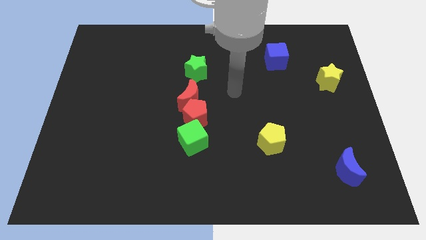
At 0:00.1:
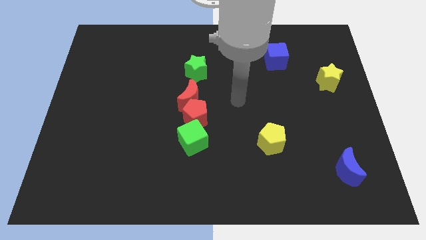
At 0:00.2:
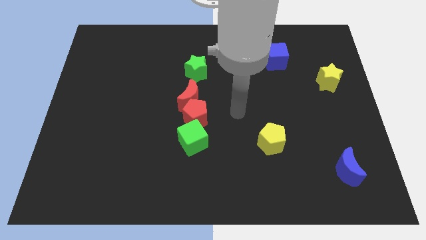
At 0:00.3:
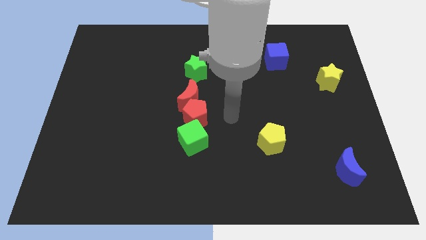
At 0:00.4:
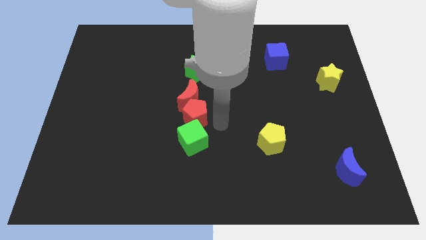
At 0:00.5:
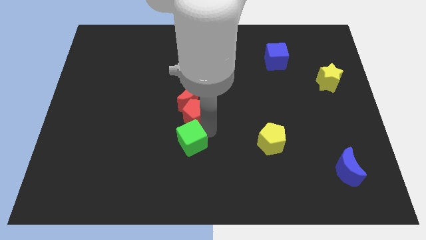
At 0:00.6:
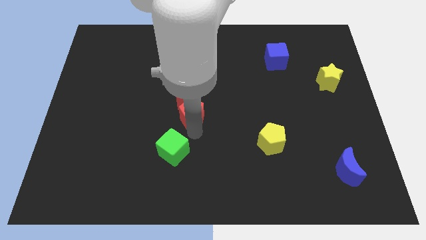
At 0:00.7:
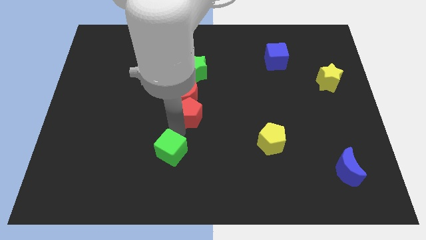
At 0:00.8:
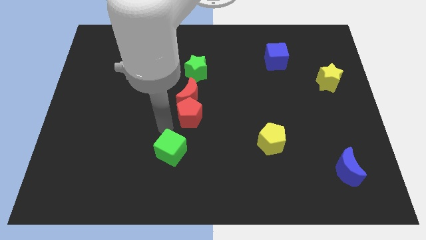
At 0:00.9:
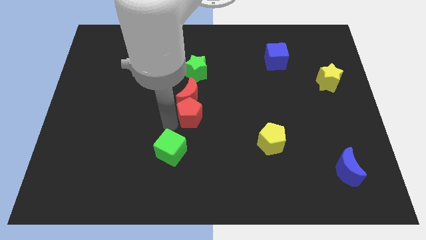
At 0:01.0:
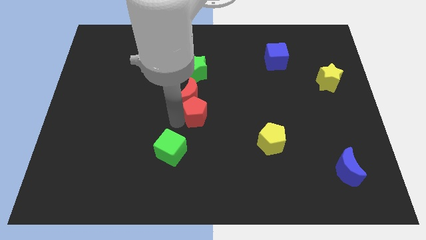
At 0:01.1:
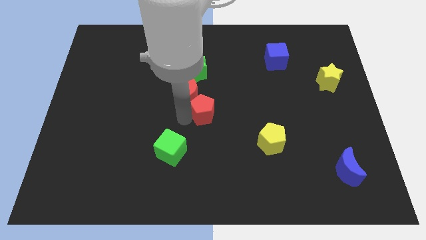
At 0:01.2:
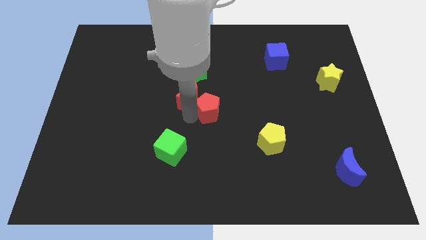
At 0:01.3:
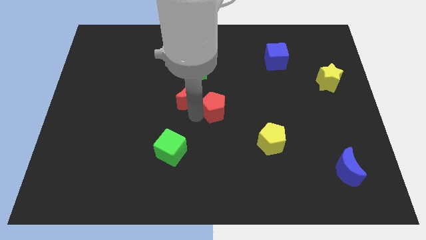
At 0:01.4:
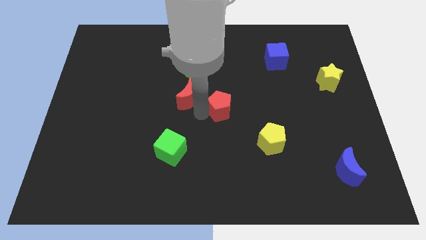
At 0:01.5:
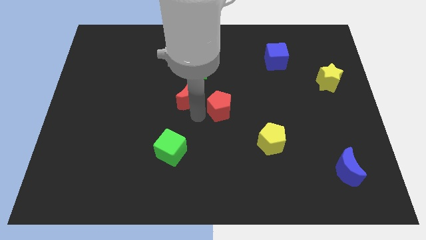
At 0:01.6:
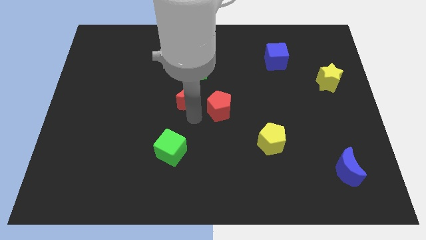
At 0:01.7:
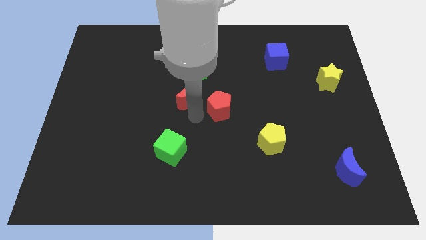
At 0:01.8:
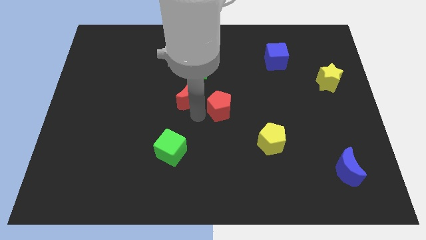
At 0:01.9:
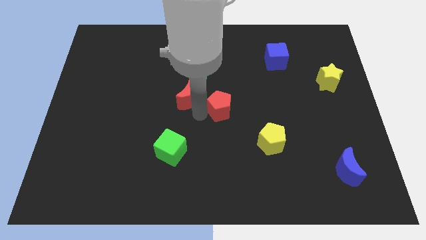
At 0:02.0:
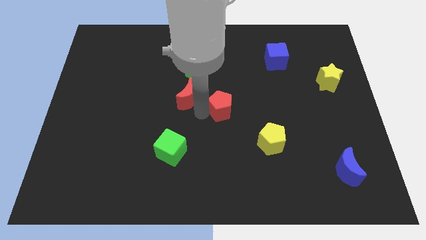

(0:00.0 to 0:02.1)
separate the red pentagon from the red moon and green cube

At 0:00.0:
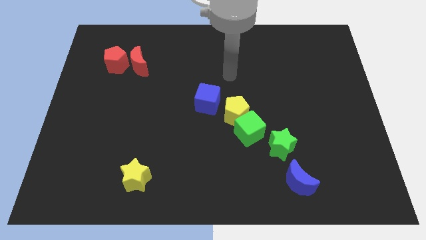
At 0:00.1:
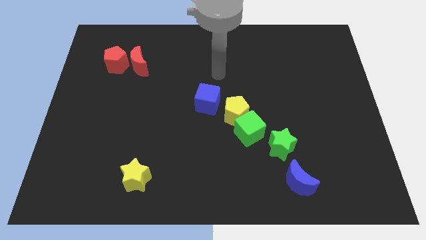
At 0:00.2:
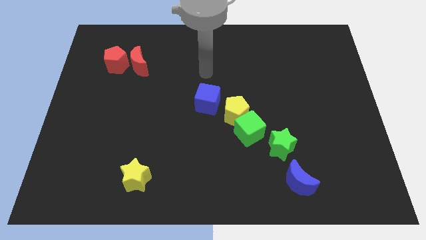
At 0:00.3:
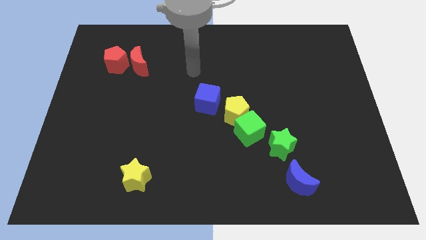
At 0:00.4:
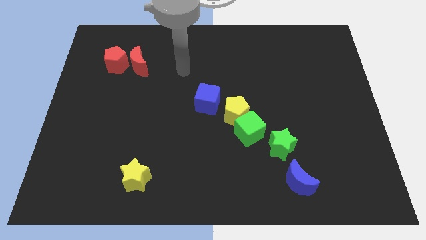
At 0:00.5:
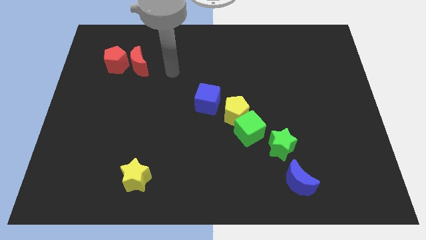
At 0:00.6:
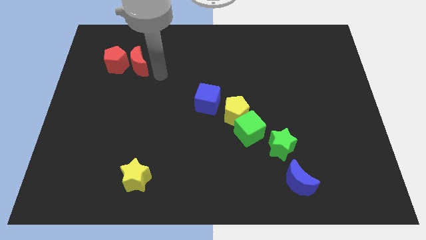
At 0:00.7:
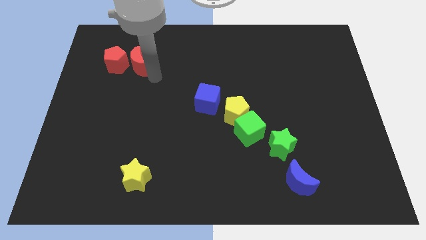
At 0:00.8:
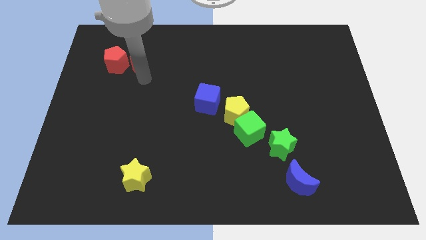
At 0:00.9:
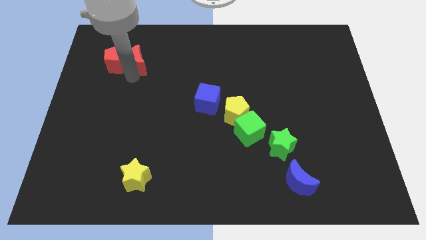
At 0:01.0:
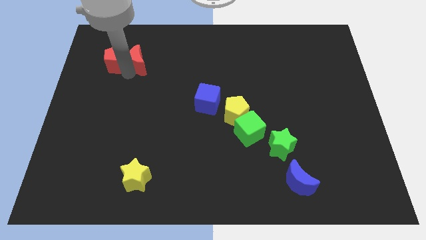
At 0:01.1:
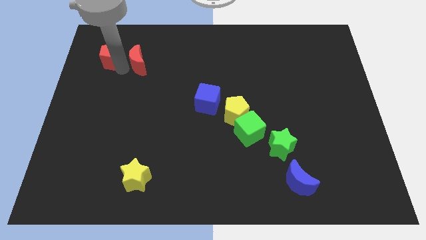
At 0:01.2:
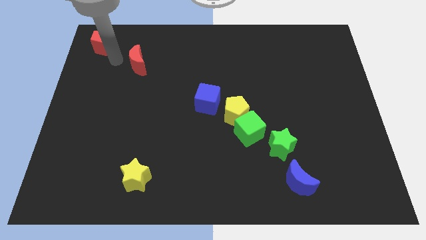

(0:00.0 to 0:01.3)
pull the red moon apart from the red pentagon

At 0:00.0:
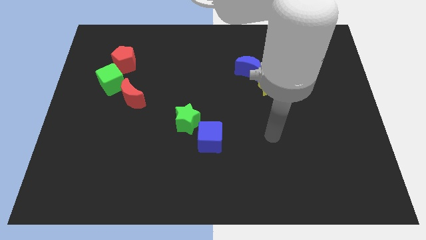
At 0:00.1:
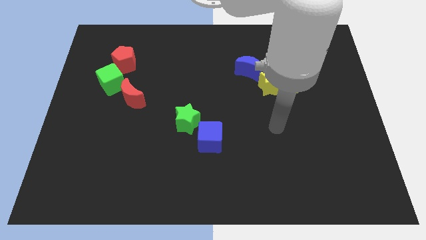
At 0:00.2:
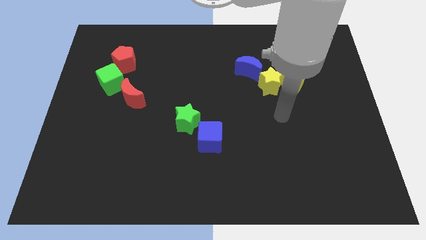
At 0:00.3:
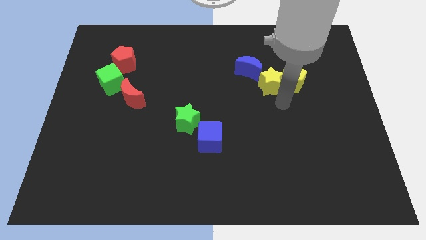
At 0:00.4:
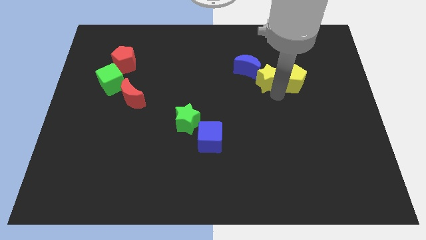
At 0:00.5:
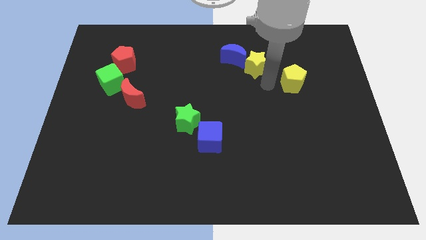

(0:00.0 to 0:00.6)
pull the yellow pentagon apart from the yellow star

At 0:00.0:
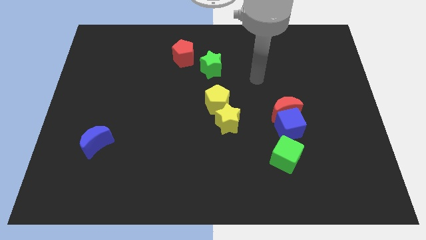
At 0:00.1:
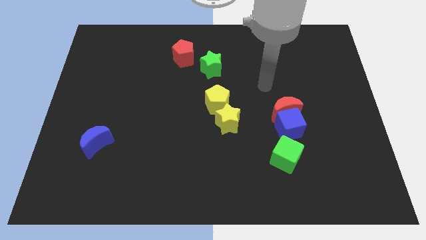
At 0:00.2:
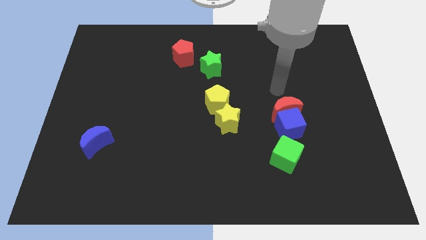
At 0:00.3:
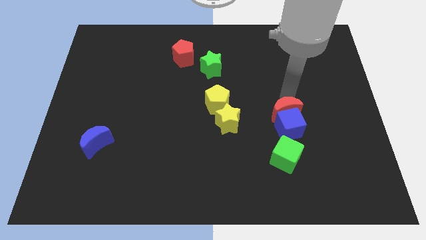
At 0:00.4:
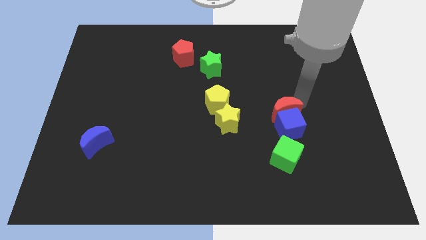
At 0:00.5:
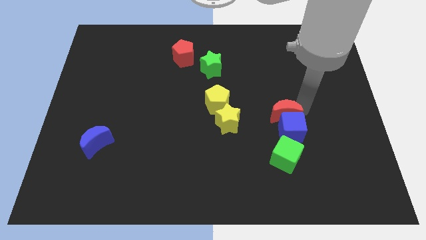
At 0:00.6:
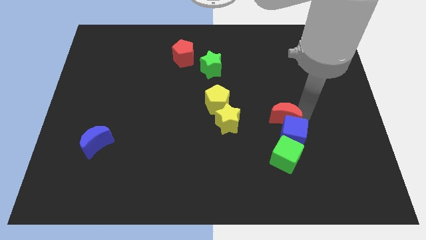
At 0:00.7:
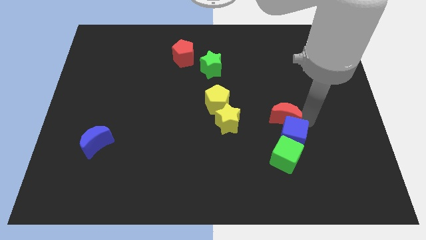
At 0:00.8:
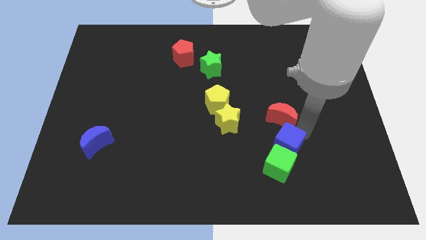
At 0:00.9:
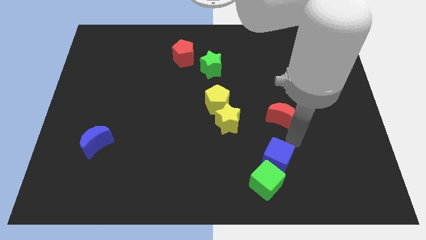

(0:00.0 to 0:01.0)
separate the red moon from the blue cube

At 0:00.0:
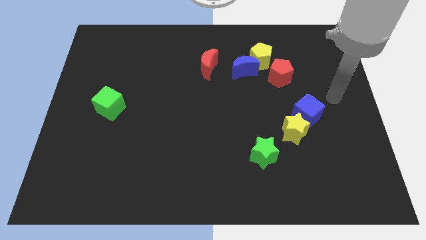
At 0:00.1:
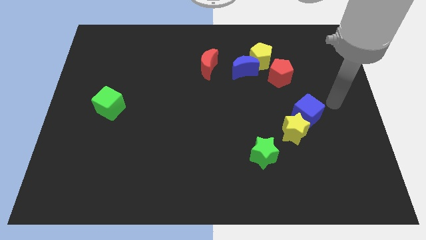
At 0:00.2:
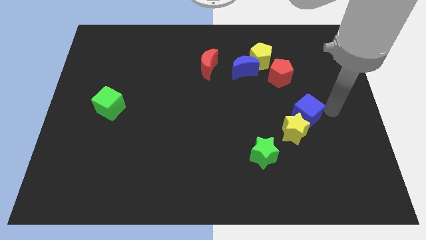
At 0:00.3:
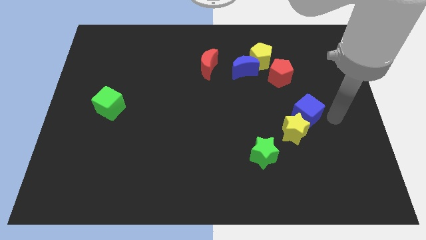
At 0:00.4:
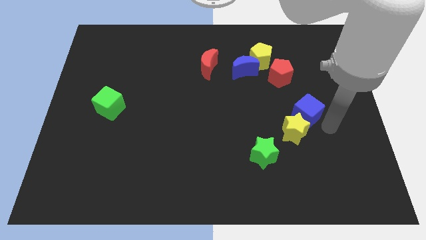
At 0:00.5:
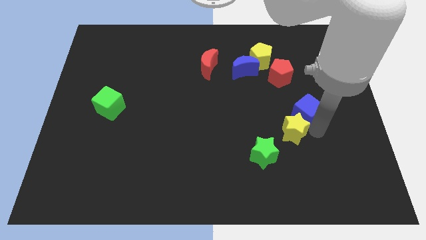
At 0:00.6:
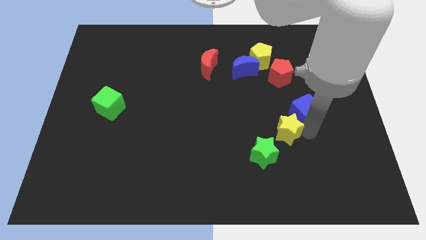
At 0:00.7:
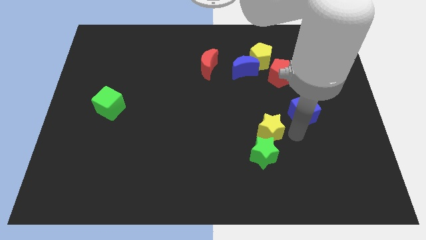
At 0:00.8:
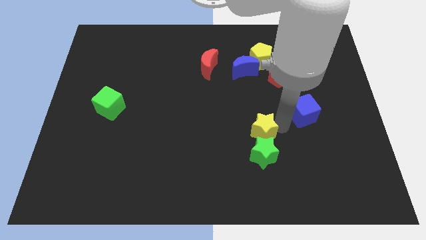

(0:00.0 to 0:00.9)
move the blue cube away from the yellow star

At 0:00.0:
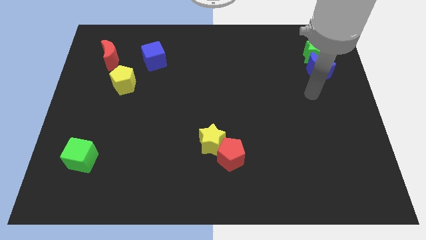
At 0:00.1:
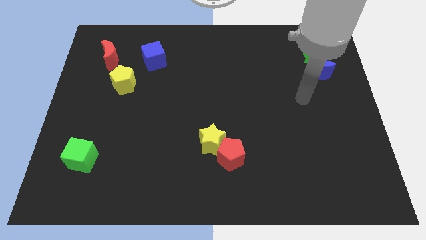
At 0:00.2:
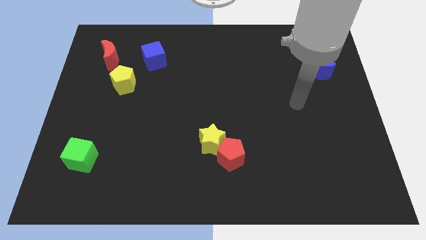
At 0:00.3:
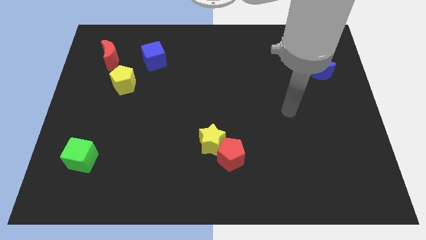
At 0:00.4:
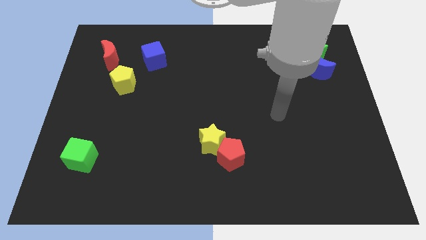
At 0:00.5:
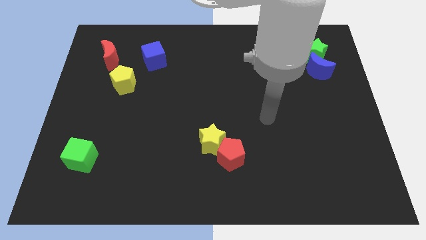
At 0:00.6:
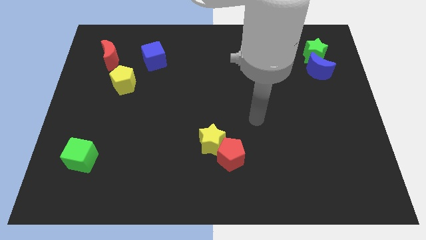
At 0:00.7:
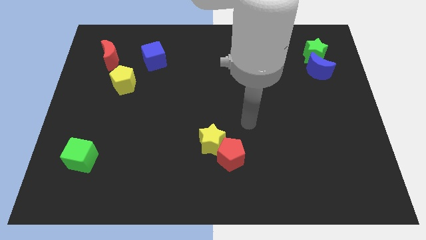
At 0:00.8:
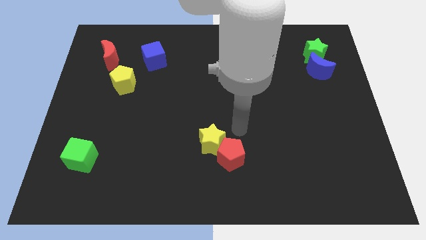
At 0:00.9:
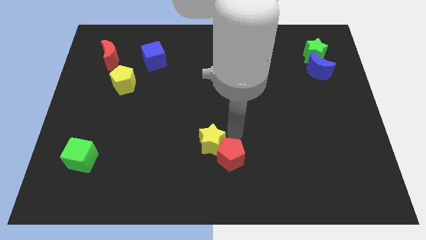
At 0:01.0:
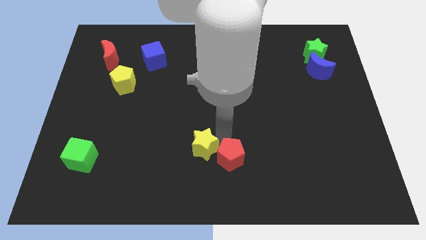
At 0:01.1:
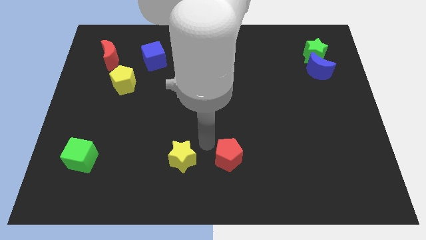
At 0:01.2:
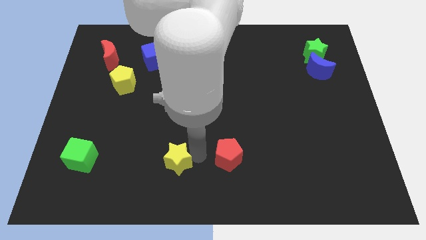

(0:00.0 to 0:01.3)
move the red pentagon away from the yellow star

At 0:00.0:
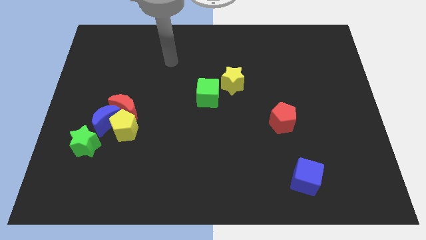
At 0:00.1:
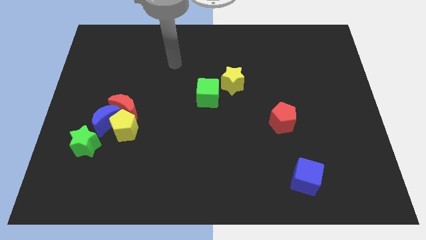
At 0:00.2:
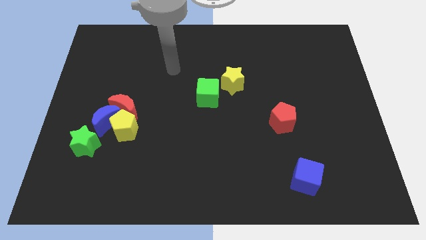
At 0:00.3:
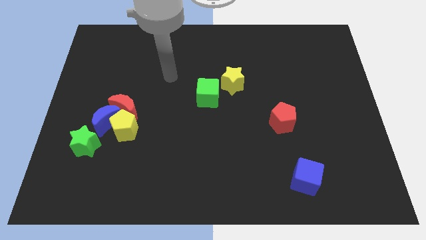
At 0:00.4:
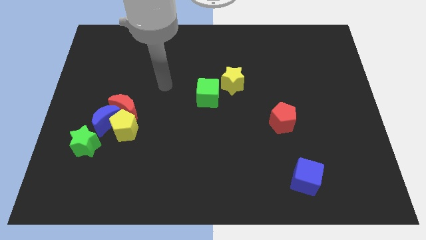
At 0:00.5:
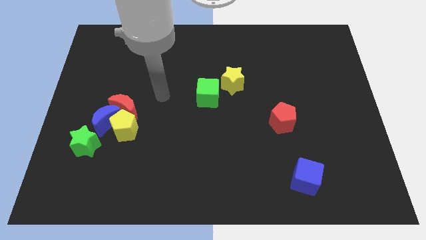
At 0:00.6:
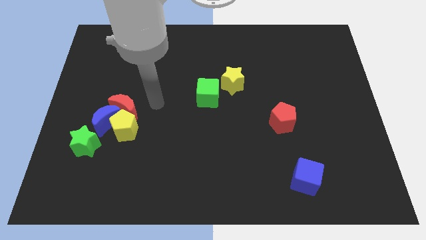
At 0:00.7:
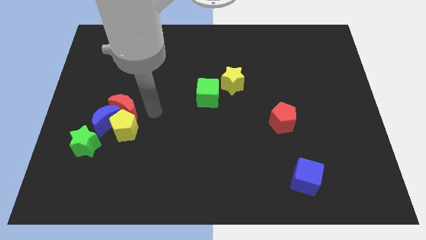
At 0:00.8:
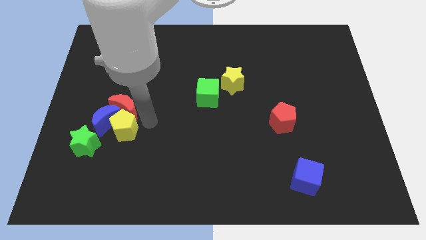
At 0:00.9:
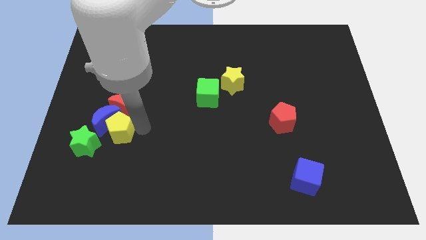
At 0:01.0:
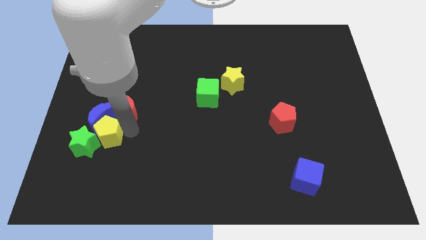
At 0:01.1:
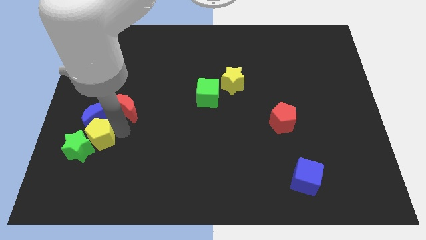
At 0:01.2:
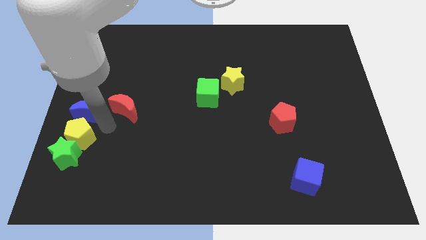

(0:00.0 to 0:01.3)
move the red moon away from the blue moon and yellow pentagon

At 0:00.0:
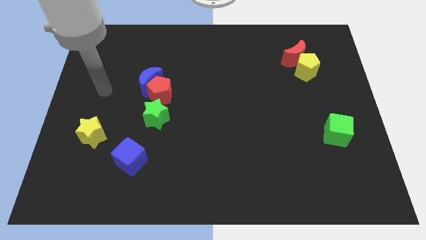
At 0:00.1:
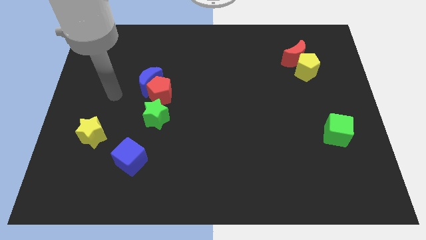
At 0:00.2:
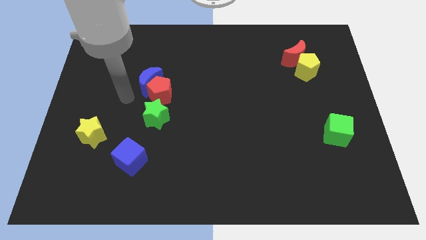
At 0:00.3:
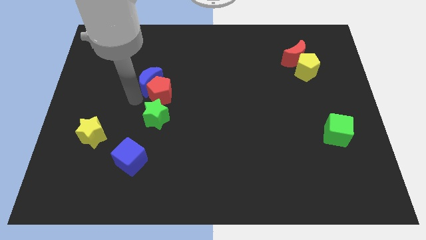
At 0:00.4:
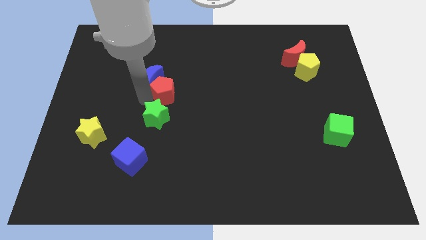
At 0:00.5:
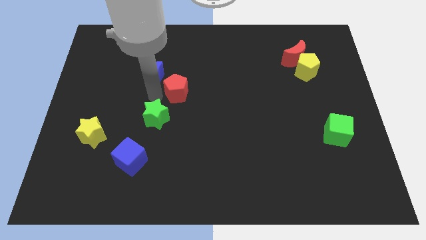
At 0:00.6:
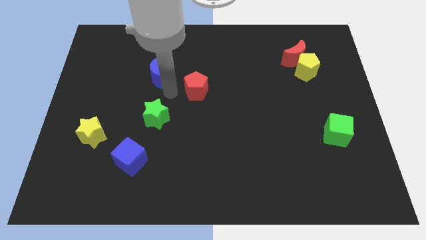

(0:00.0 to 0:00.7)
pull the blue moon apart from the red pentagon
